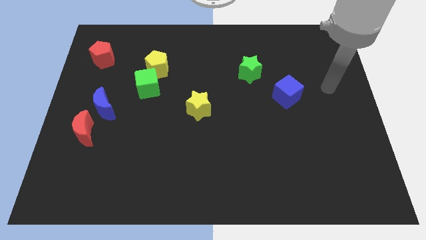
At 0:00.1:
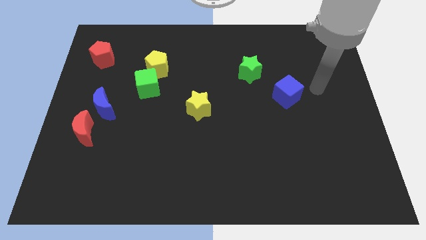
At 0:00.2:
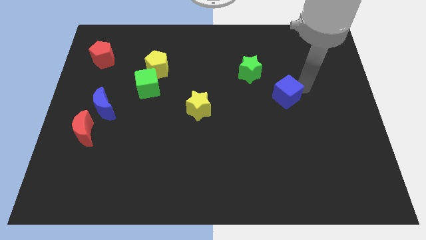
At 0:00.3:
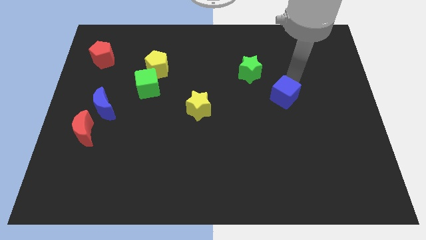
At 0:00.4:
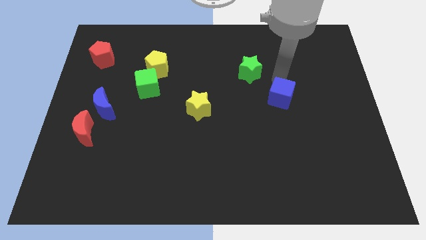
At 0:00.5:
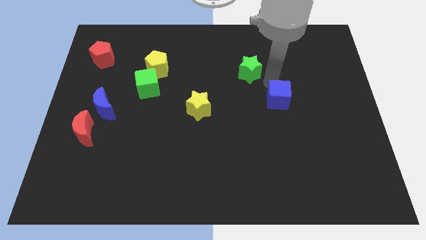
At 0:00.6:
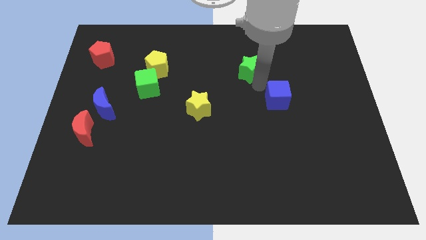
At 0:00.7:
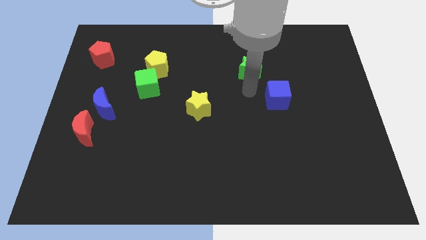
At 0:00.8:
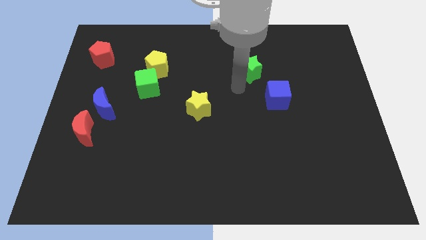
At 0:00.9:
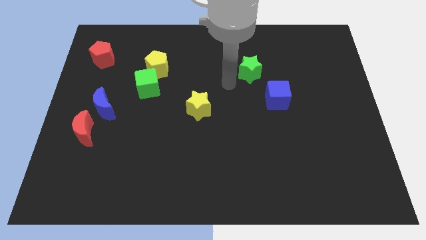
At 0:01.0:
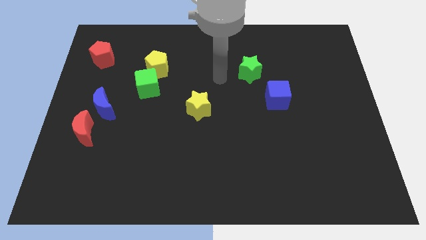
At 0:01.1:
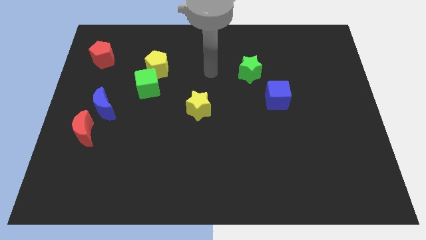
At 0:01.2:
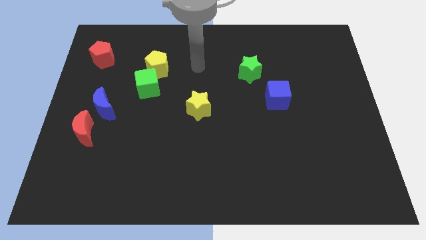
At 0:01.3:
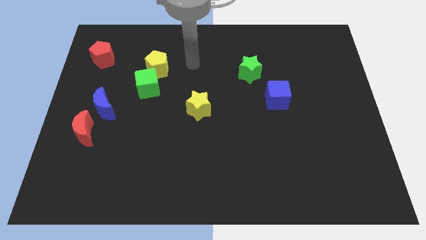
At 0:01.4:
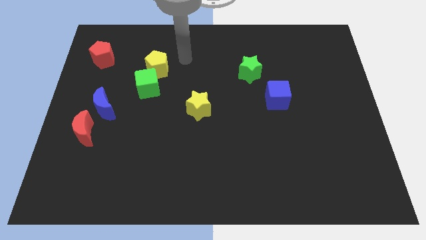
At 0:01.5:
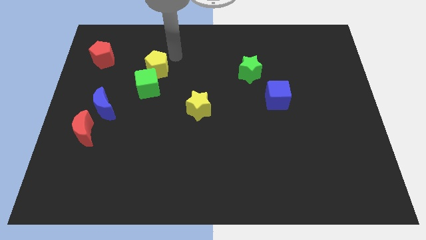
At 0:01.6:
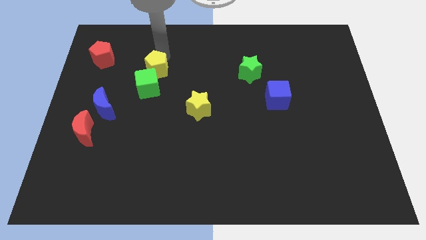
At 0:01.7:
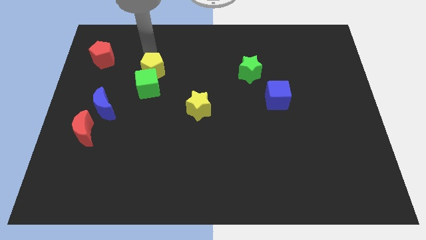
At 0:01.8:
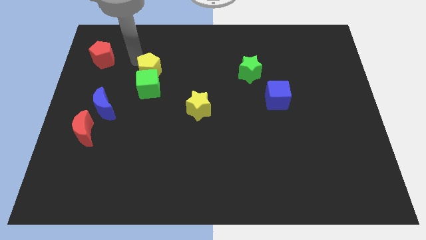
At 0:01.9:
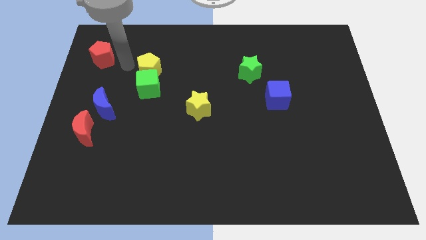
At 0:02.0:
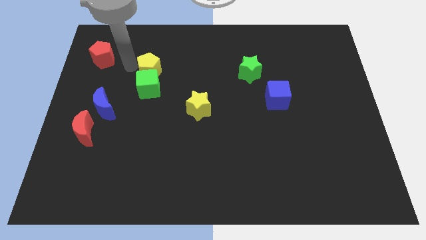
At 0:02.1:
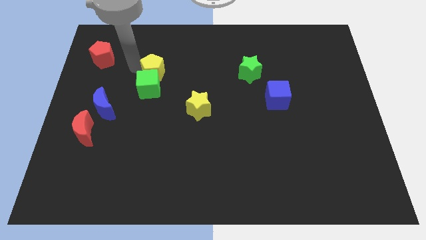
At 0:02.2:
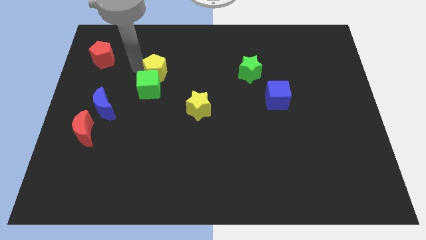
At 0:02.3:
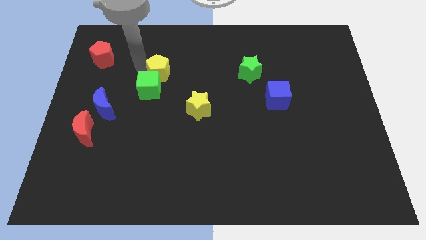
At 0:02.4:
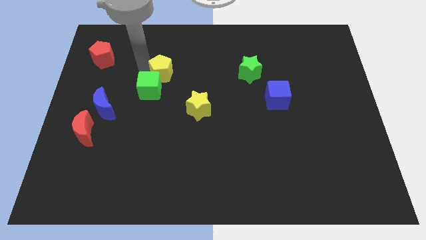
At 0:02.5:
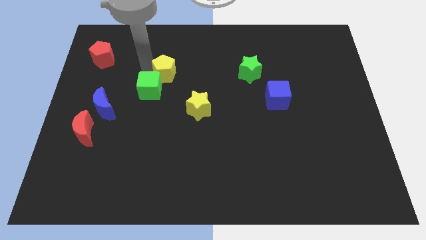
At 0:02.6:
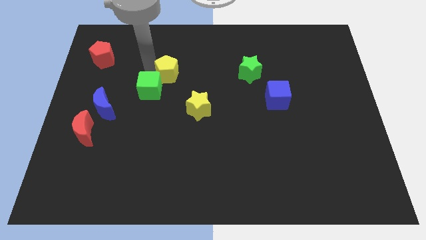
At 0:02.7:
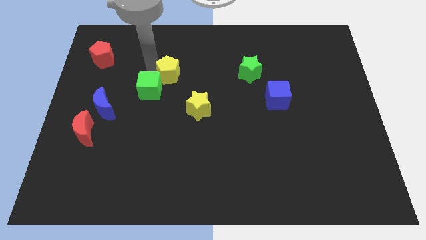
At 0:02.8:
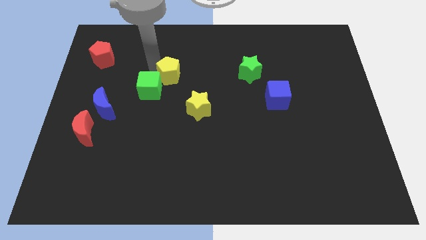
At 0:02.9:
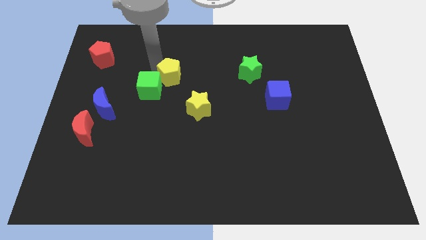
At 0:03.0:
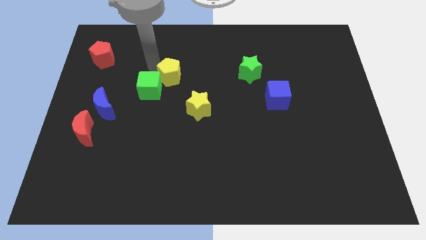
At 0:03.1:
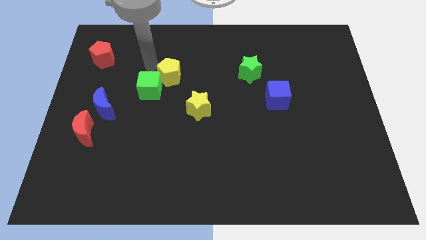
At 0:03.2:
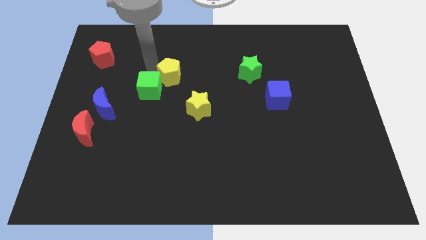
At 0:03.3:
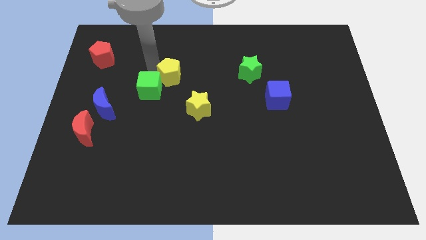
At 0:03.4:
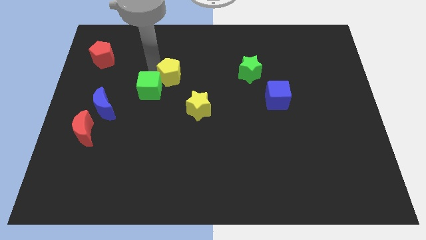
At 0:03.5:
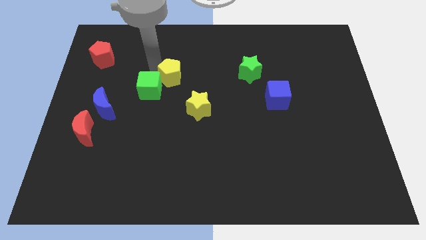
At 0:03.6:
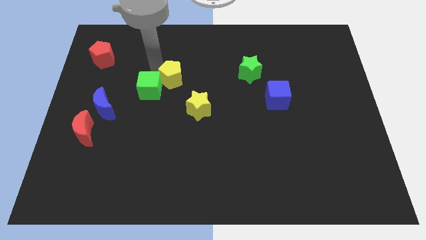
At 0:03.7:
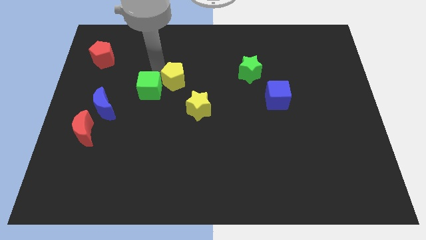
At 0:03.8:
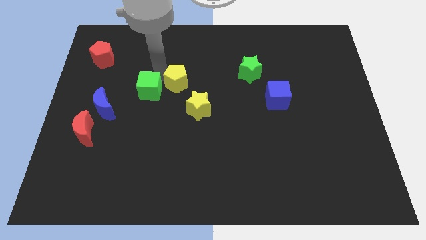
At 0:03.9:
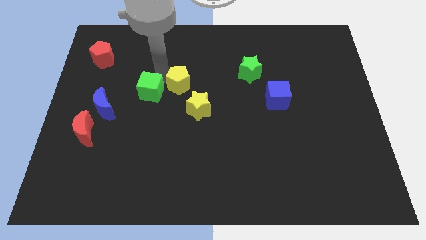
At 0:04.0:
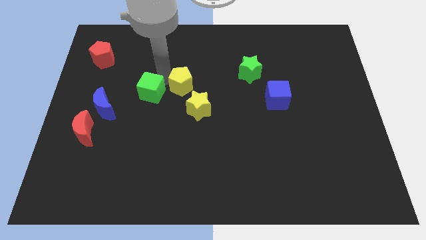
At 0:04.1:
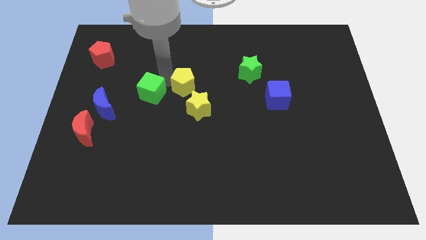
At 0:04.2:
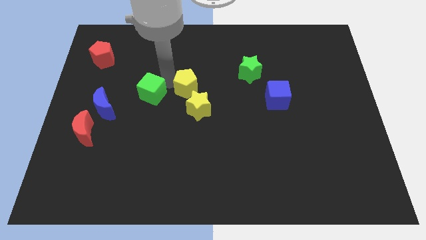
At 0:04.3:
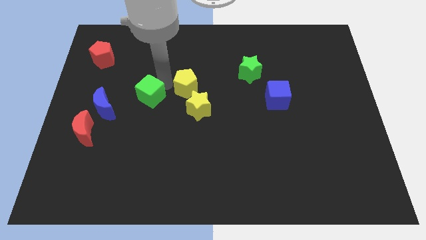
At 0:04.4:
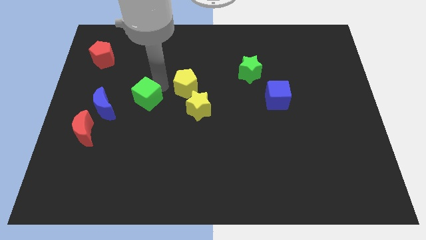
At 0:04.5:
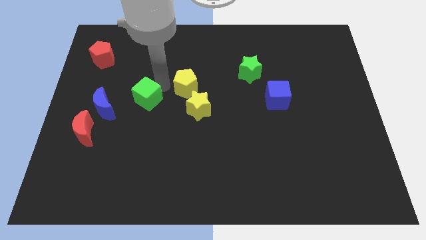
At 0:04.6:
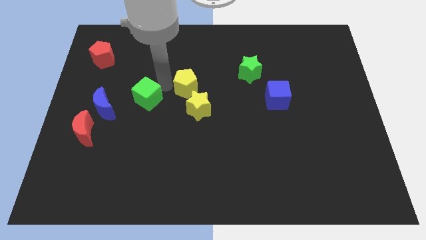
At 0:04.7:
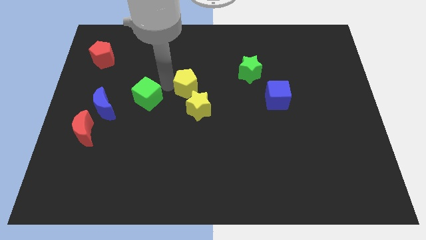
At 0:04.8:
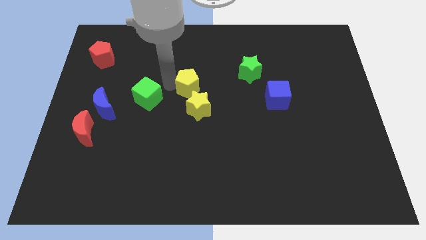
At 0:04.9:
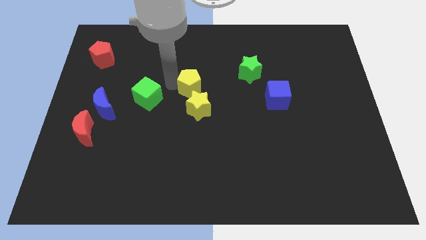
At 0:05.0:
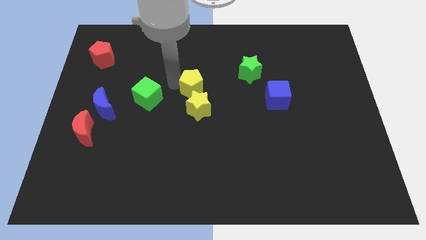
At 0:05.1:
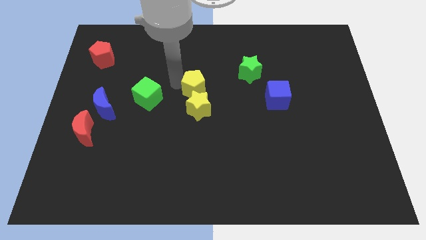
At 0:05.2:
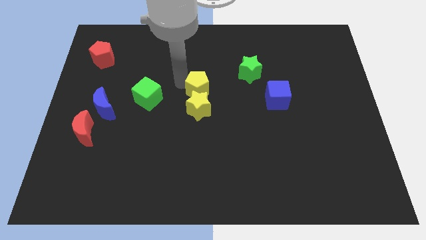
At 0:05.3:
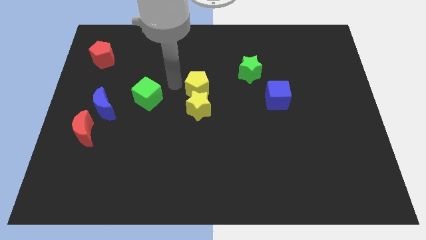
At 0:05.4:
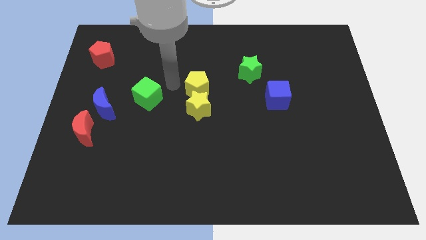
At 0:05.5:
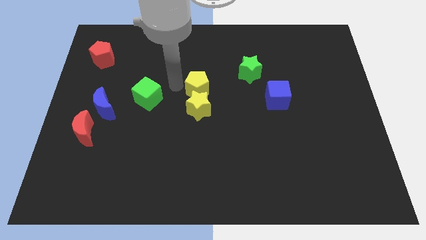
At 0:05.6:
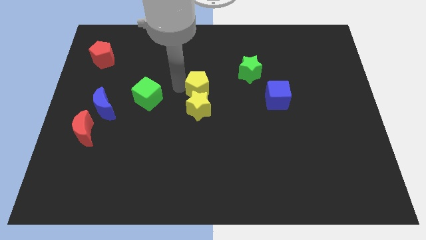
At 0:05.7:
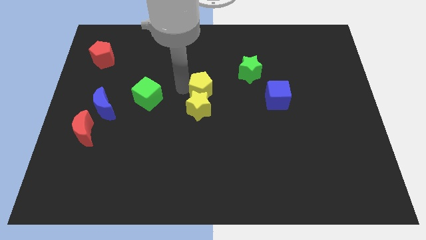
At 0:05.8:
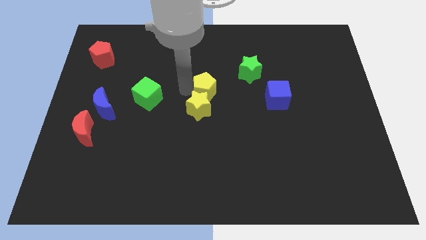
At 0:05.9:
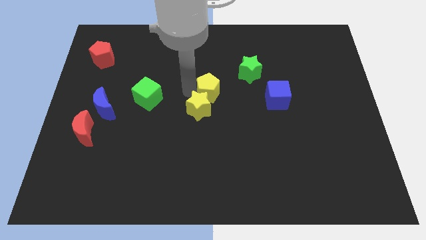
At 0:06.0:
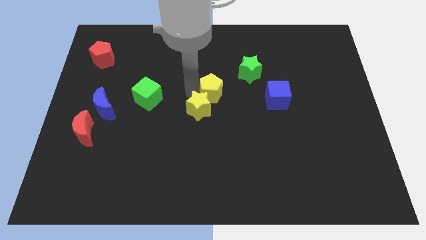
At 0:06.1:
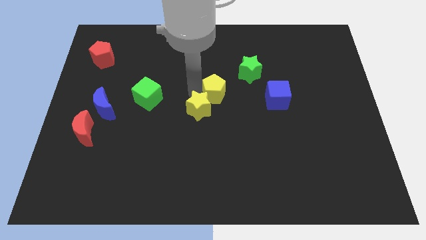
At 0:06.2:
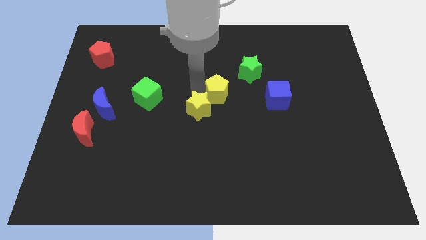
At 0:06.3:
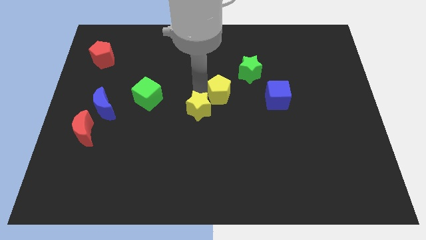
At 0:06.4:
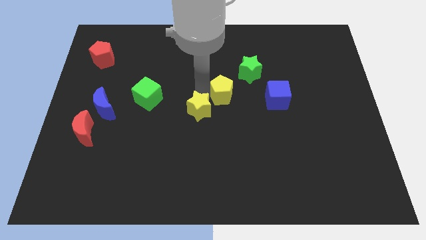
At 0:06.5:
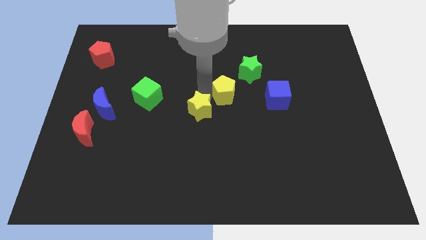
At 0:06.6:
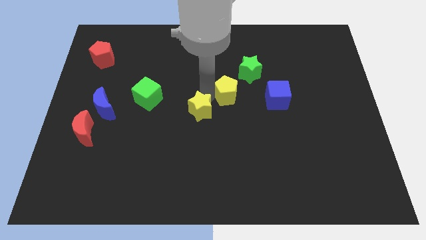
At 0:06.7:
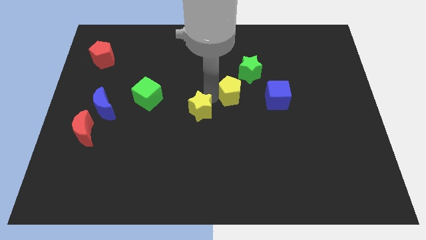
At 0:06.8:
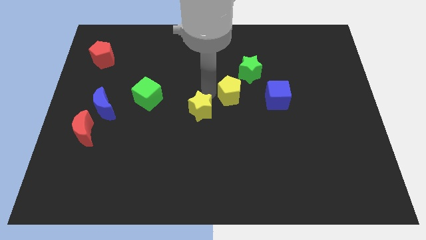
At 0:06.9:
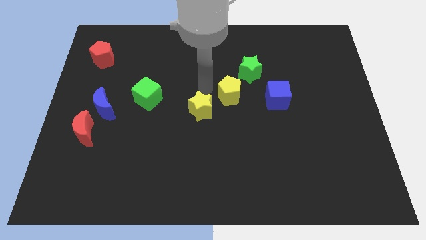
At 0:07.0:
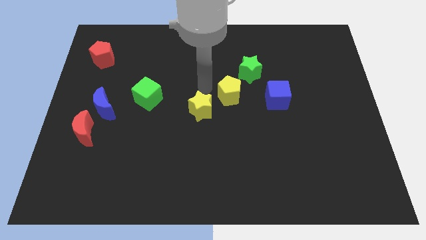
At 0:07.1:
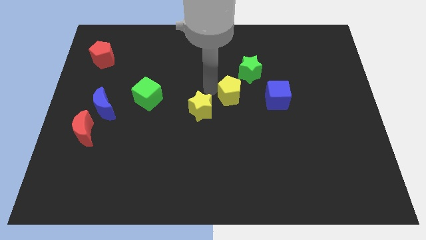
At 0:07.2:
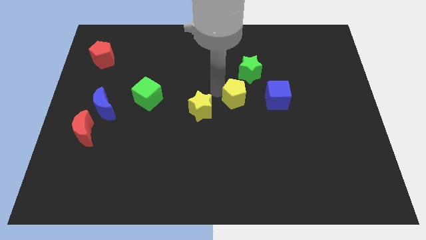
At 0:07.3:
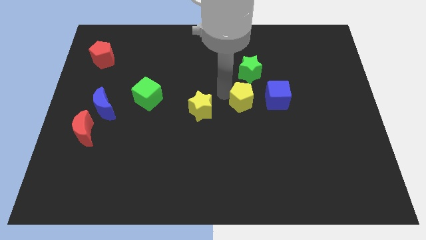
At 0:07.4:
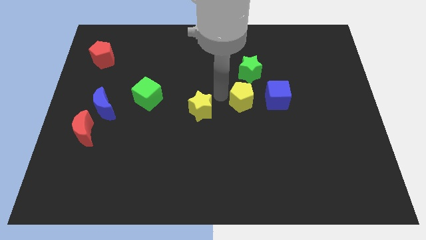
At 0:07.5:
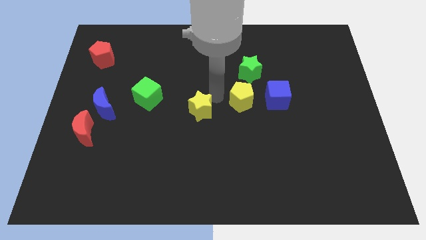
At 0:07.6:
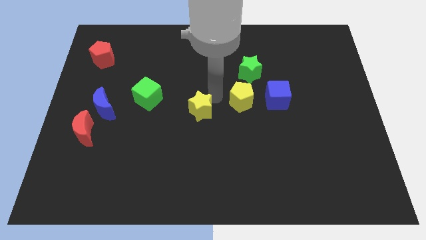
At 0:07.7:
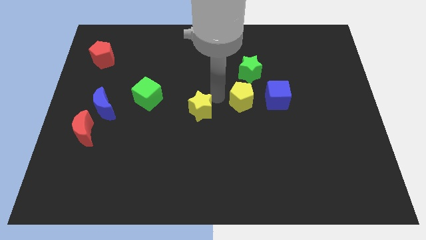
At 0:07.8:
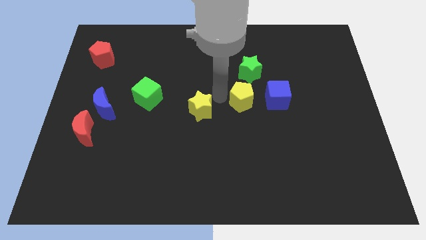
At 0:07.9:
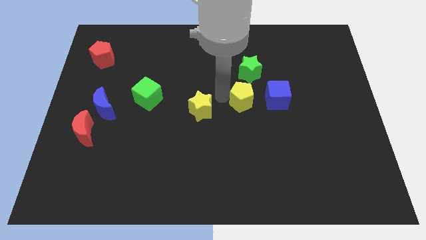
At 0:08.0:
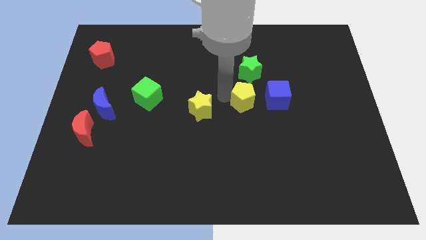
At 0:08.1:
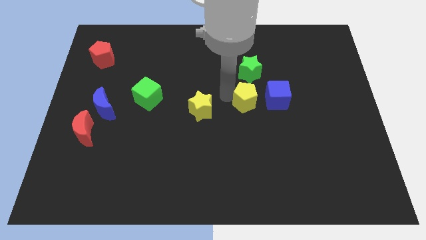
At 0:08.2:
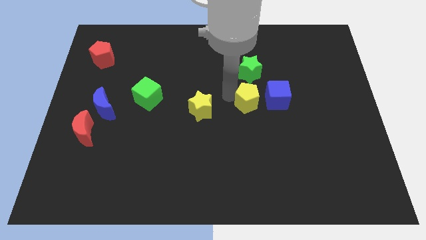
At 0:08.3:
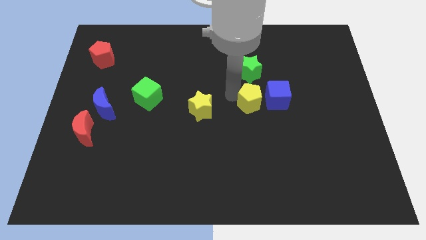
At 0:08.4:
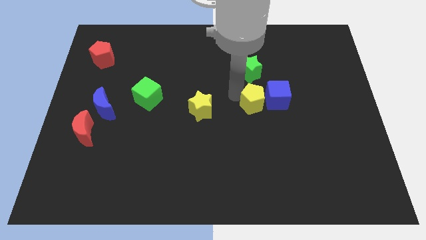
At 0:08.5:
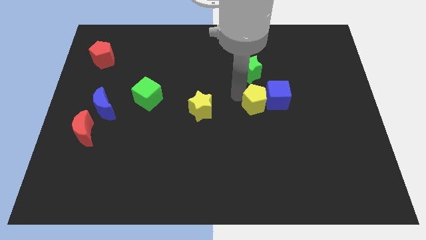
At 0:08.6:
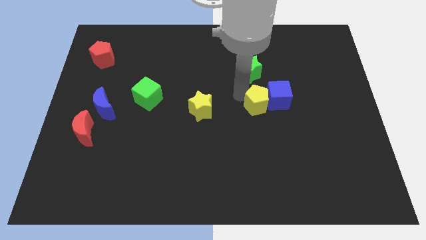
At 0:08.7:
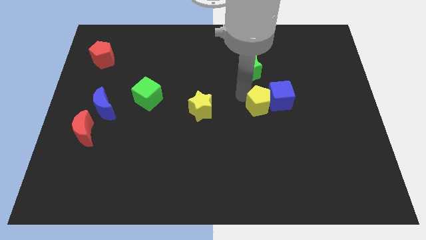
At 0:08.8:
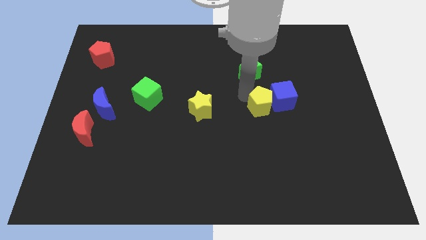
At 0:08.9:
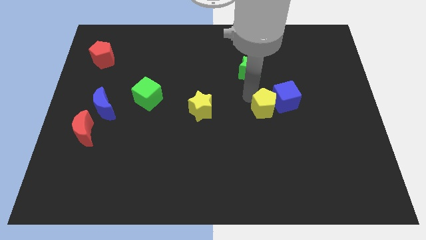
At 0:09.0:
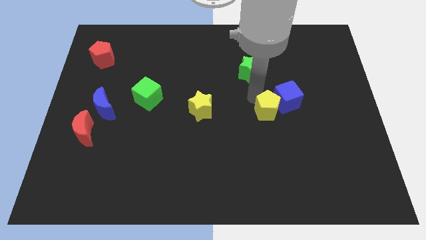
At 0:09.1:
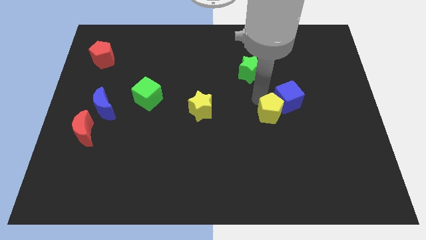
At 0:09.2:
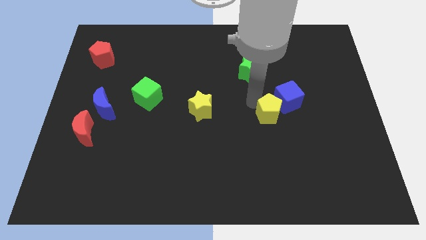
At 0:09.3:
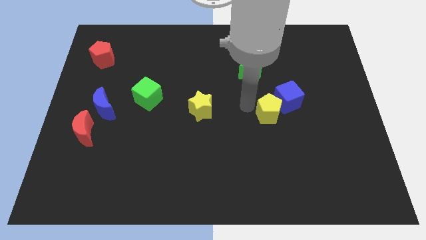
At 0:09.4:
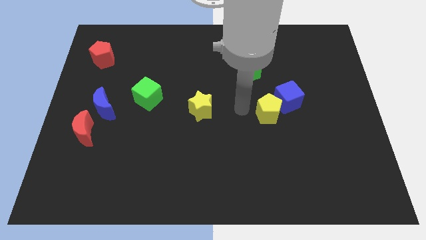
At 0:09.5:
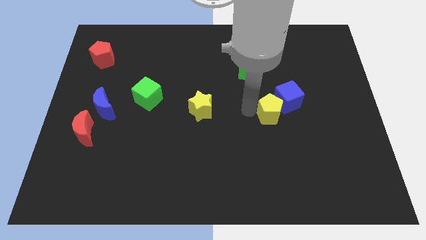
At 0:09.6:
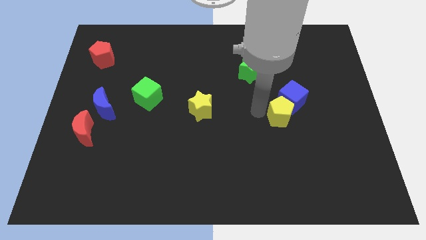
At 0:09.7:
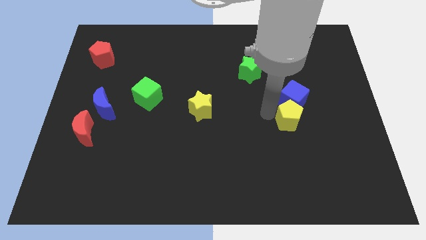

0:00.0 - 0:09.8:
push the yellow pentagon to the bottom right side of the blue cube
